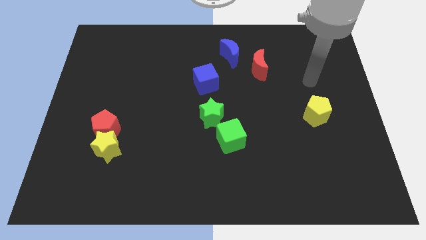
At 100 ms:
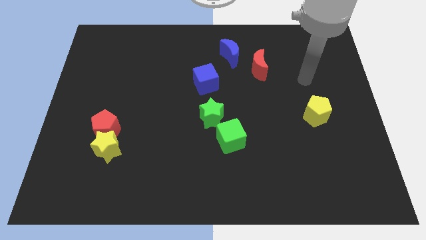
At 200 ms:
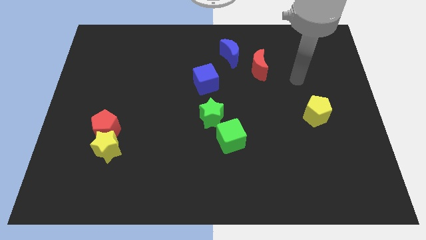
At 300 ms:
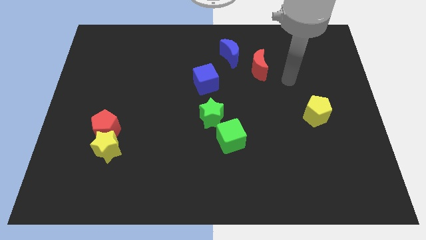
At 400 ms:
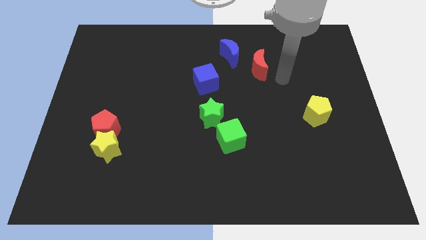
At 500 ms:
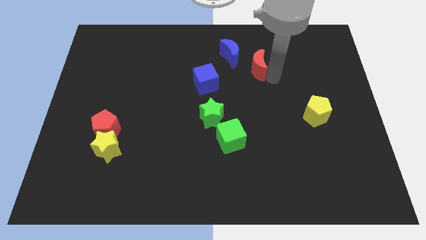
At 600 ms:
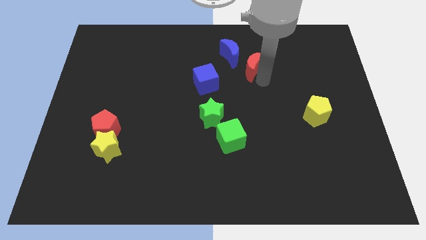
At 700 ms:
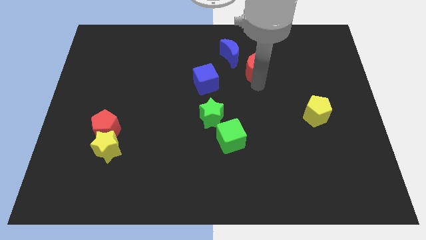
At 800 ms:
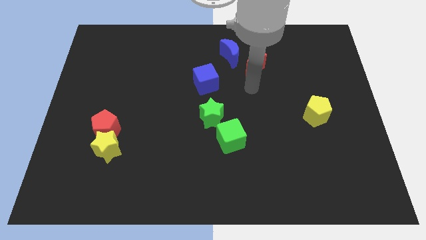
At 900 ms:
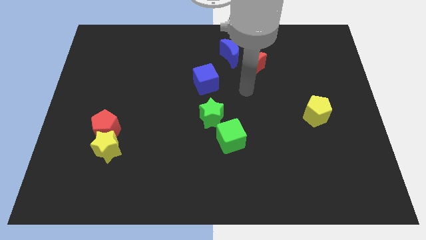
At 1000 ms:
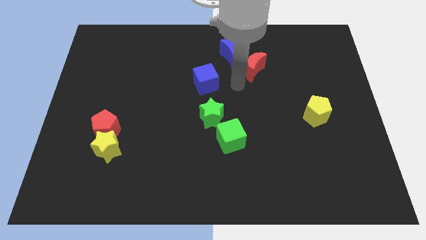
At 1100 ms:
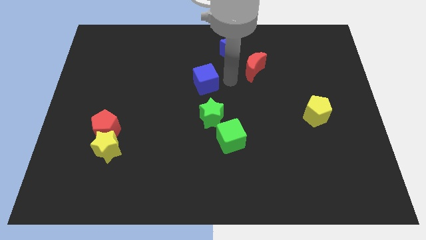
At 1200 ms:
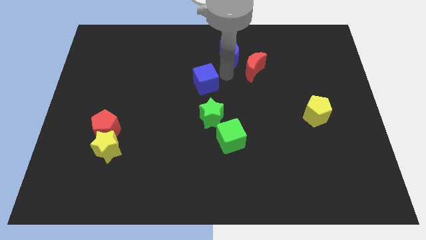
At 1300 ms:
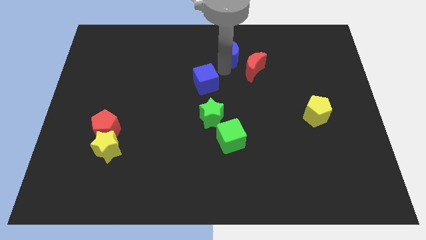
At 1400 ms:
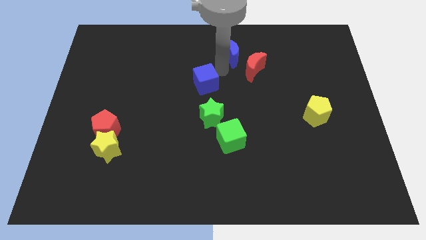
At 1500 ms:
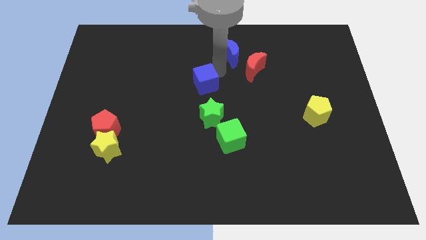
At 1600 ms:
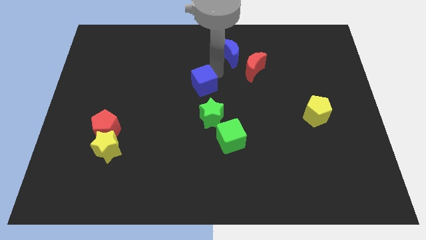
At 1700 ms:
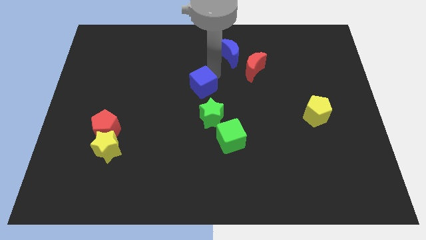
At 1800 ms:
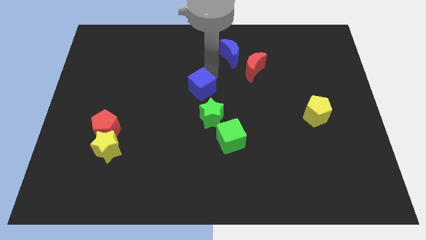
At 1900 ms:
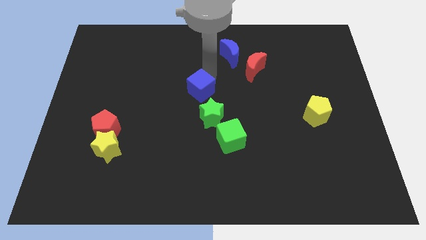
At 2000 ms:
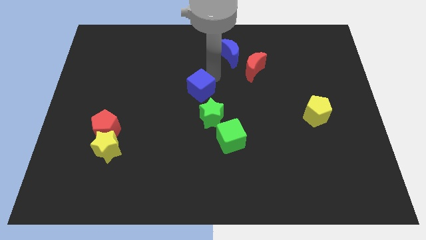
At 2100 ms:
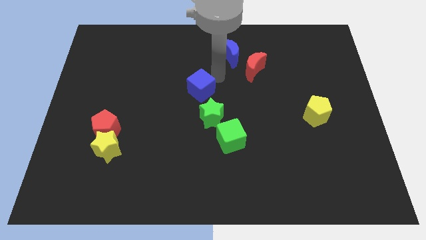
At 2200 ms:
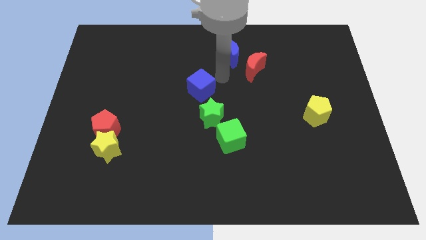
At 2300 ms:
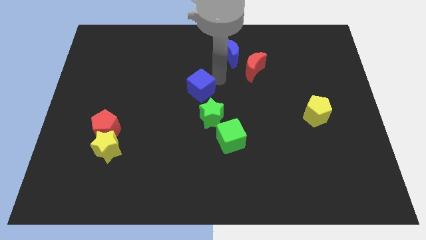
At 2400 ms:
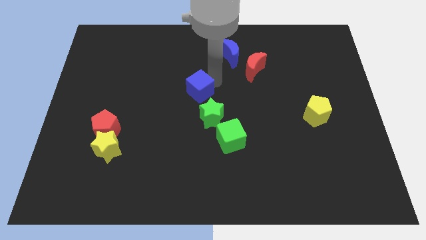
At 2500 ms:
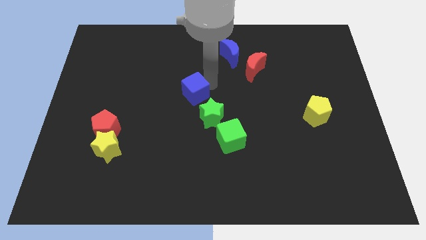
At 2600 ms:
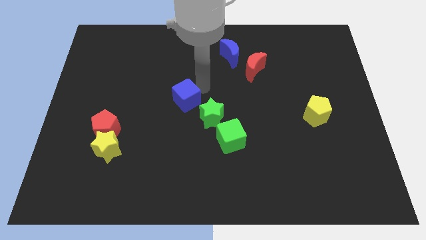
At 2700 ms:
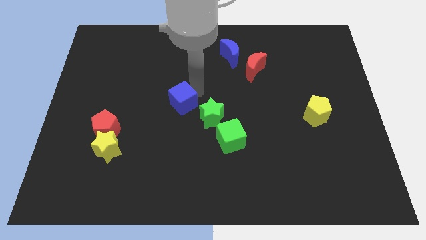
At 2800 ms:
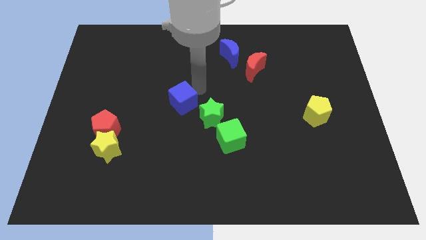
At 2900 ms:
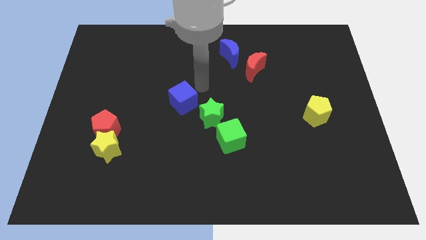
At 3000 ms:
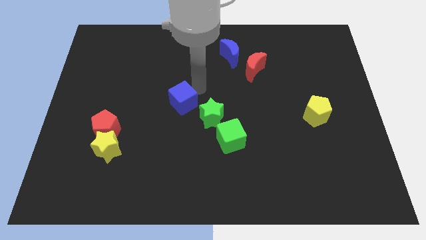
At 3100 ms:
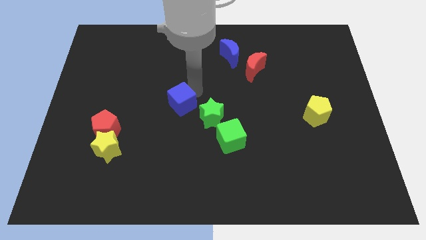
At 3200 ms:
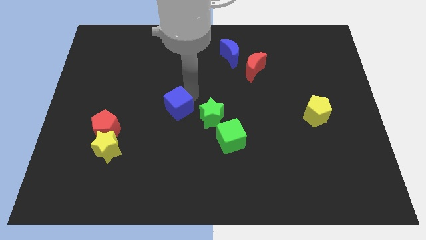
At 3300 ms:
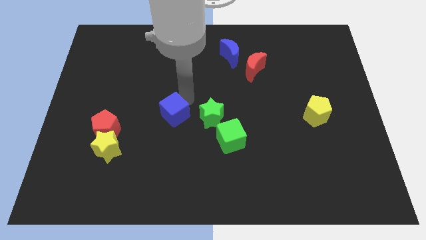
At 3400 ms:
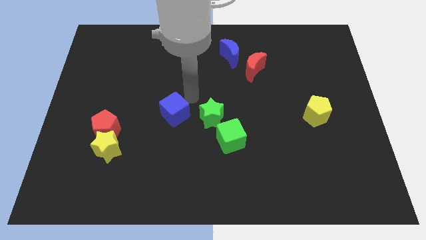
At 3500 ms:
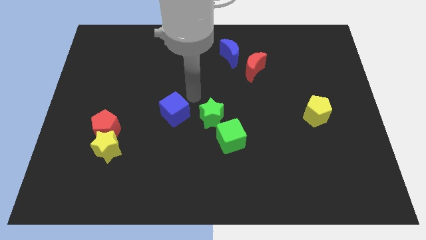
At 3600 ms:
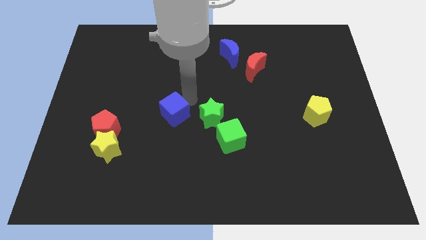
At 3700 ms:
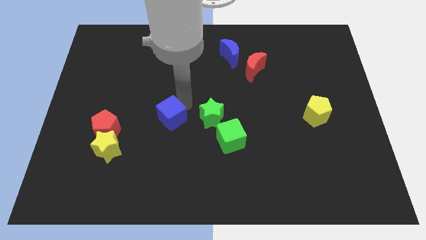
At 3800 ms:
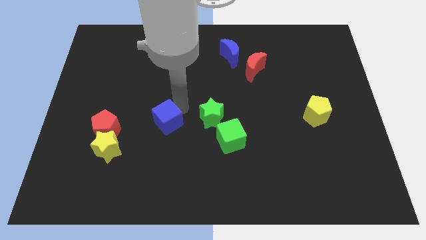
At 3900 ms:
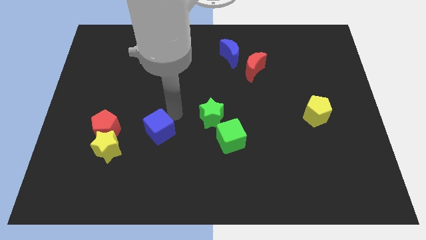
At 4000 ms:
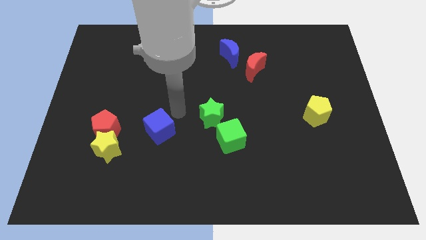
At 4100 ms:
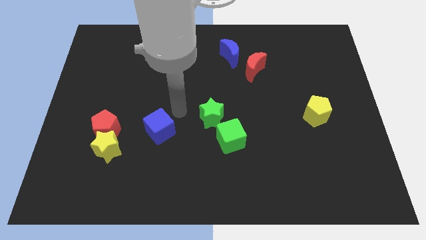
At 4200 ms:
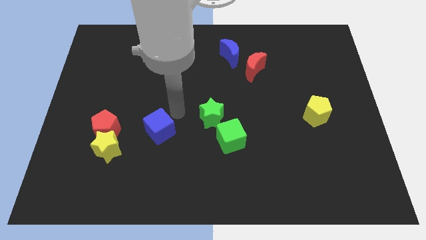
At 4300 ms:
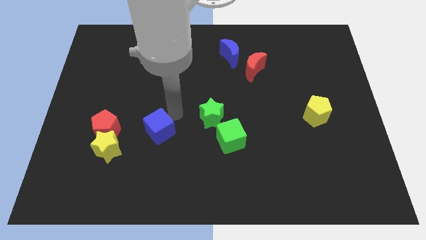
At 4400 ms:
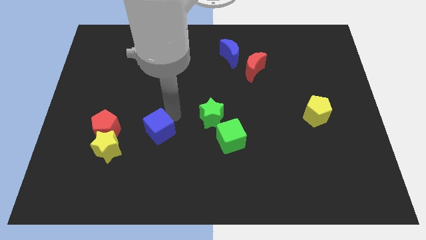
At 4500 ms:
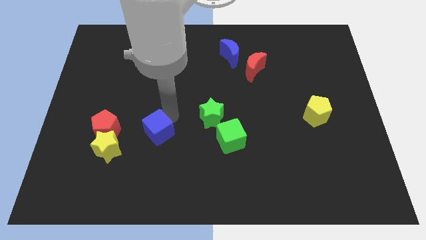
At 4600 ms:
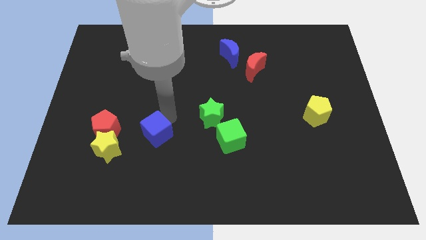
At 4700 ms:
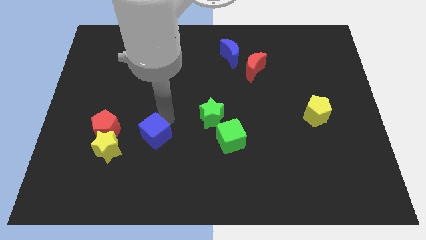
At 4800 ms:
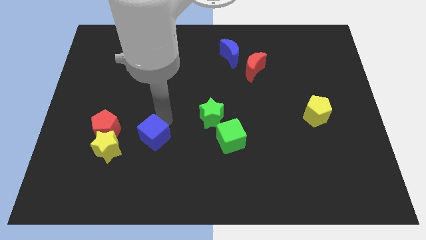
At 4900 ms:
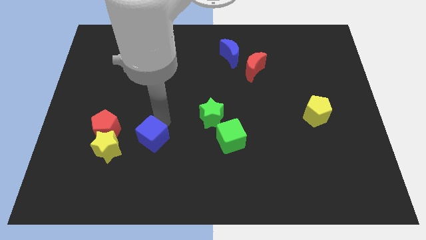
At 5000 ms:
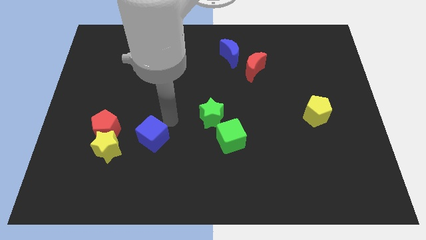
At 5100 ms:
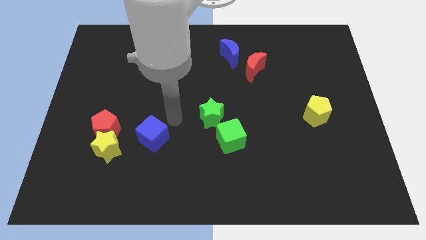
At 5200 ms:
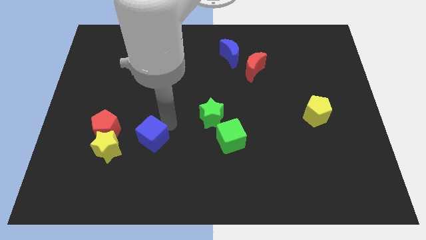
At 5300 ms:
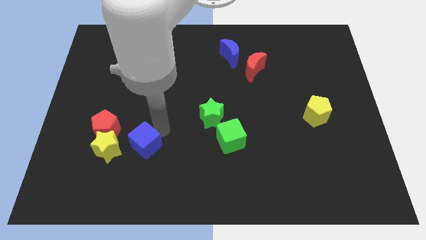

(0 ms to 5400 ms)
move the blue cube down and to the left diagonally

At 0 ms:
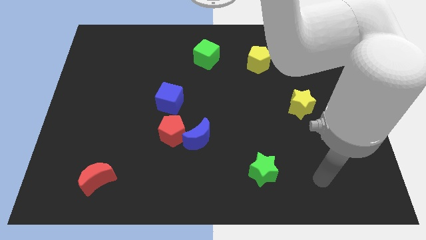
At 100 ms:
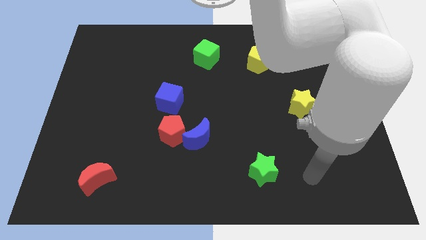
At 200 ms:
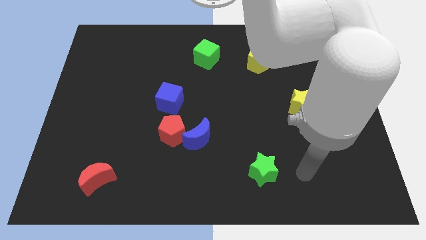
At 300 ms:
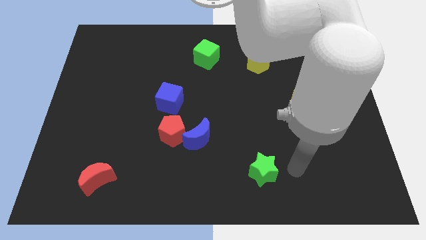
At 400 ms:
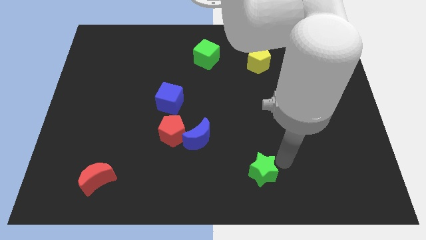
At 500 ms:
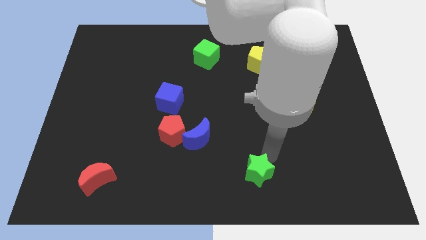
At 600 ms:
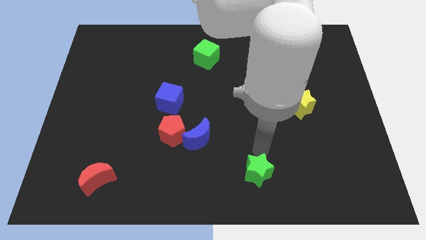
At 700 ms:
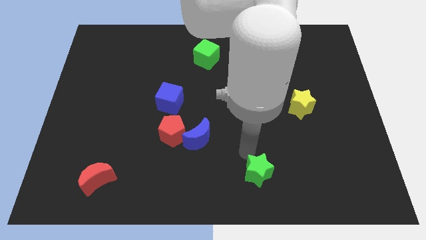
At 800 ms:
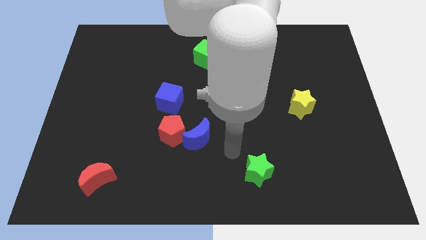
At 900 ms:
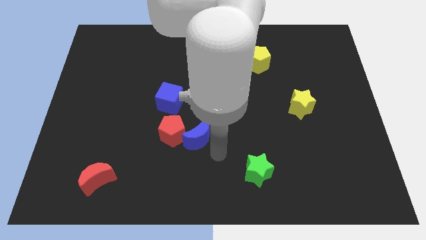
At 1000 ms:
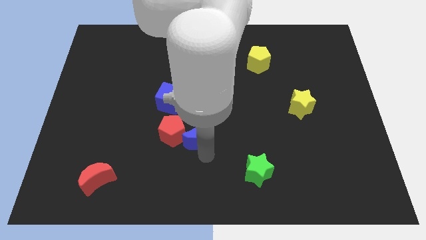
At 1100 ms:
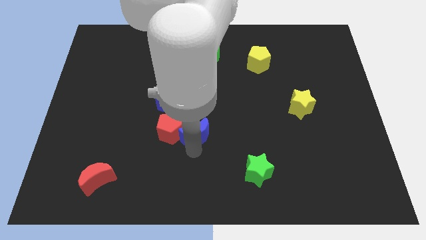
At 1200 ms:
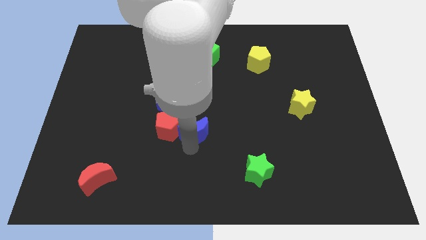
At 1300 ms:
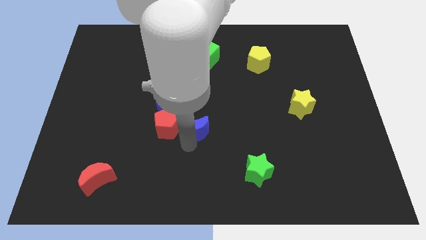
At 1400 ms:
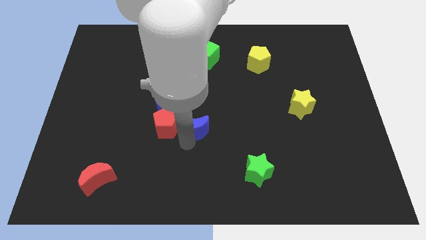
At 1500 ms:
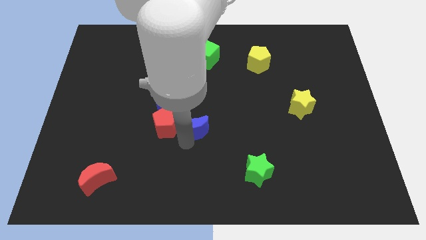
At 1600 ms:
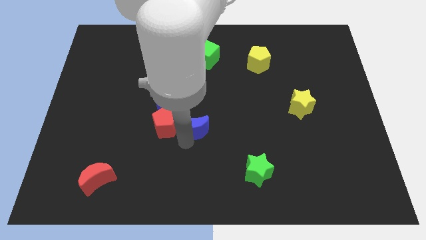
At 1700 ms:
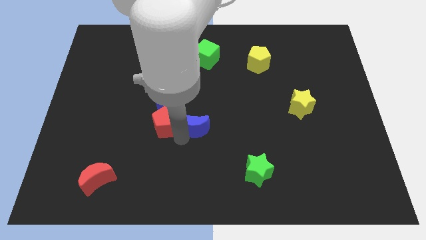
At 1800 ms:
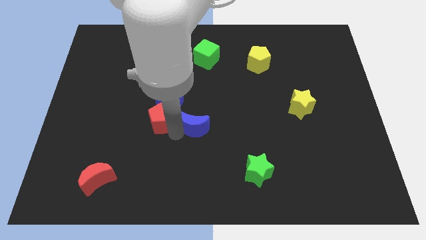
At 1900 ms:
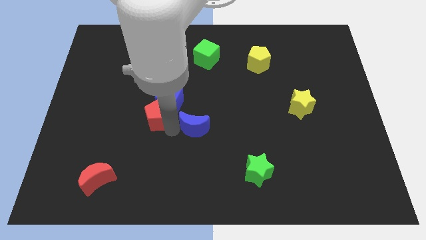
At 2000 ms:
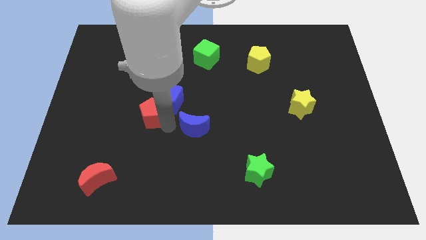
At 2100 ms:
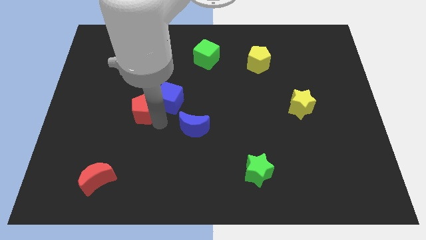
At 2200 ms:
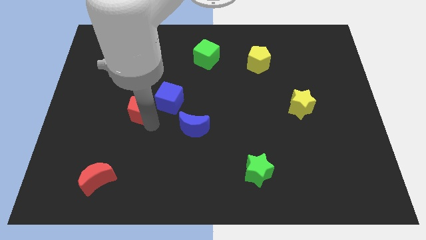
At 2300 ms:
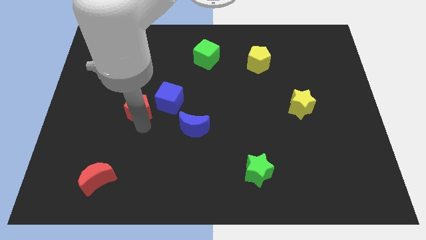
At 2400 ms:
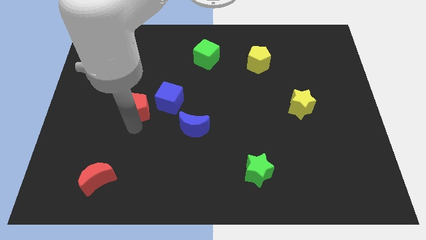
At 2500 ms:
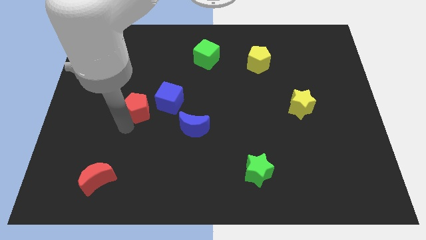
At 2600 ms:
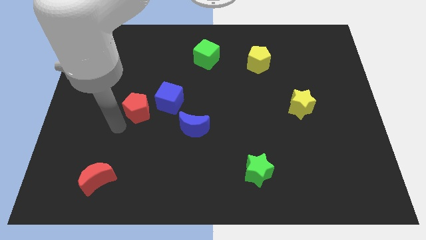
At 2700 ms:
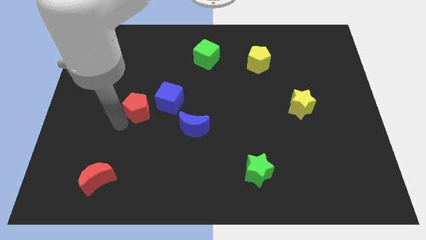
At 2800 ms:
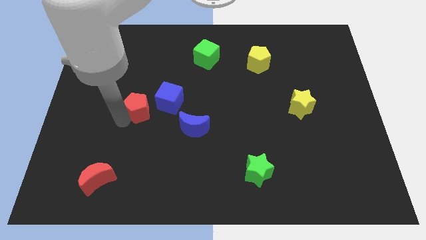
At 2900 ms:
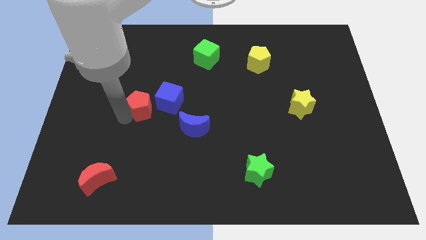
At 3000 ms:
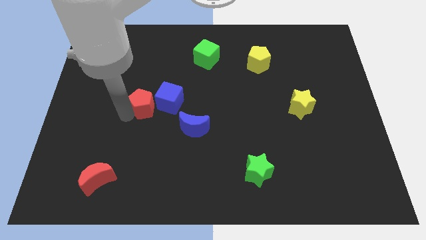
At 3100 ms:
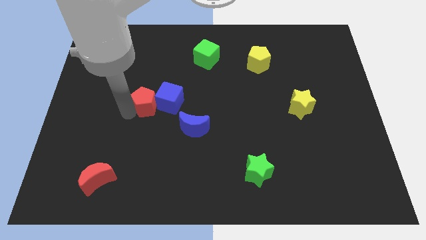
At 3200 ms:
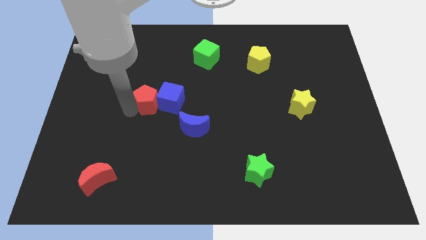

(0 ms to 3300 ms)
move the red pentagon a little bit up
